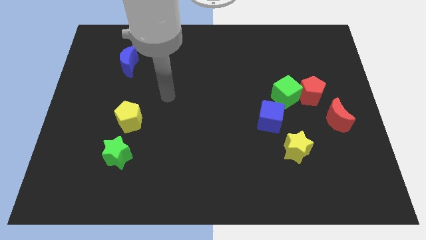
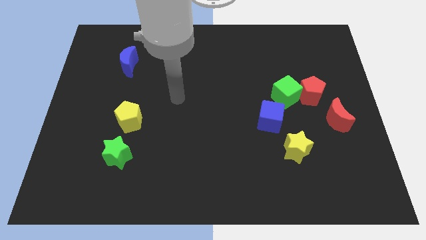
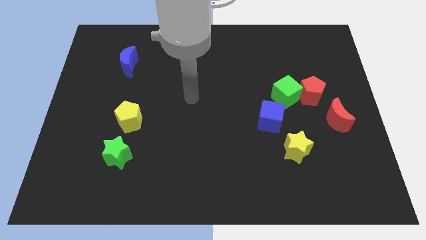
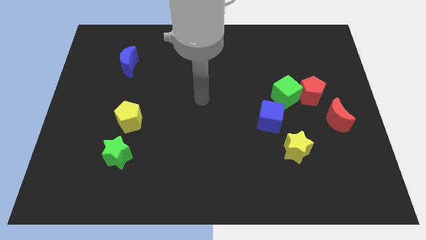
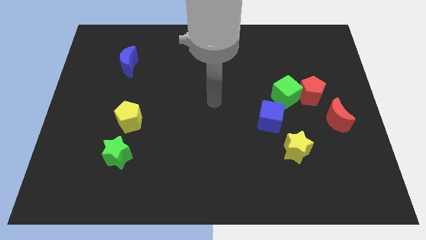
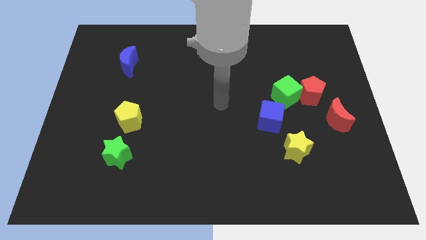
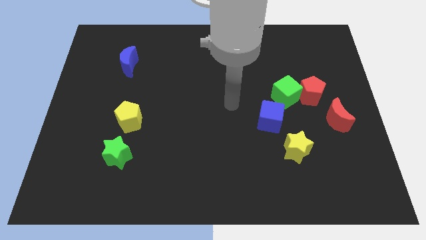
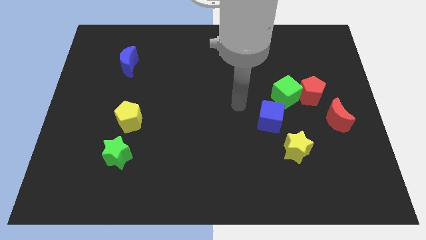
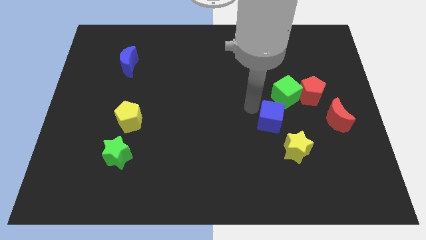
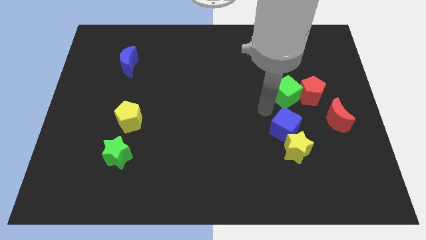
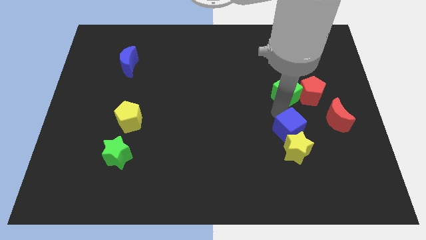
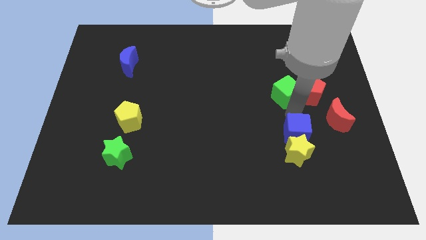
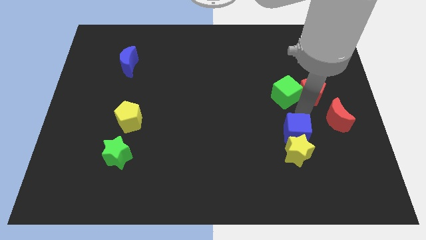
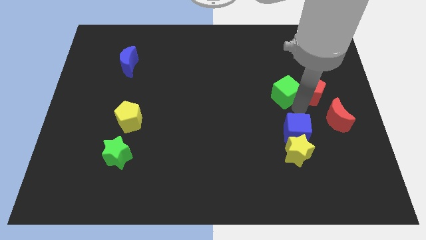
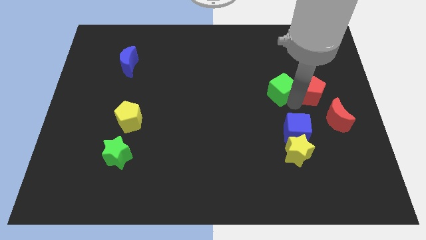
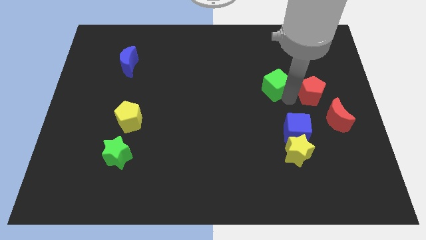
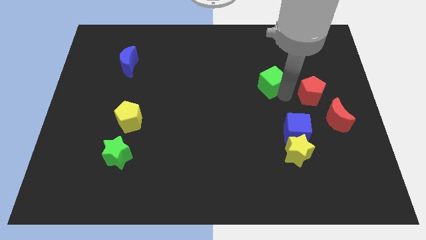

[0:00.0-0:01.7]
move the green cube away from the red pentagon and blue cube

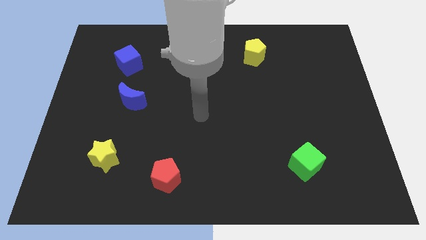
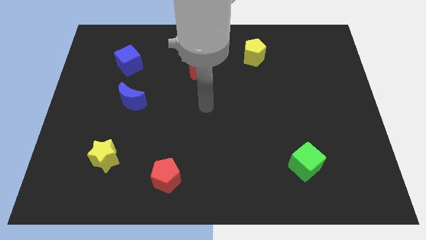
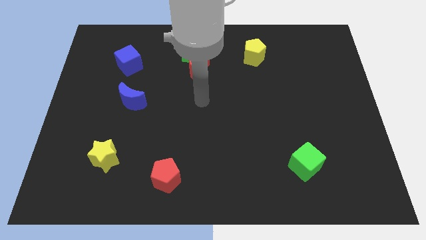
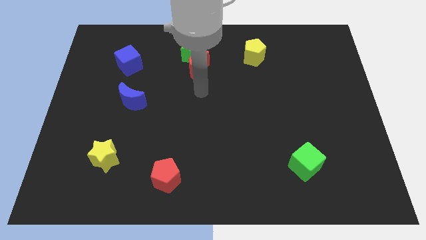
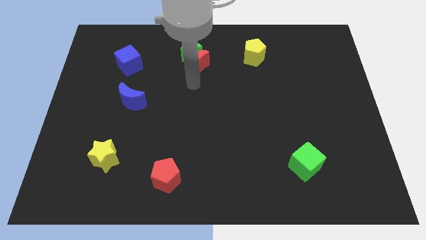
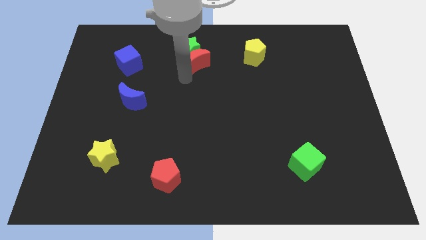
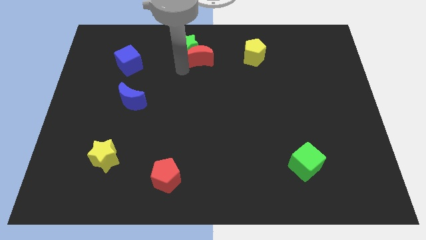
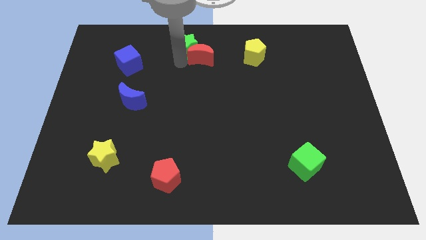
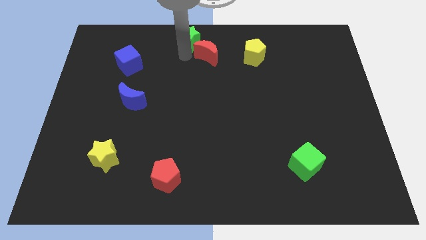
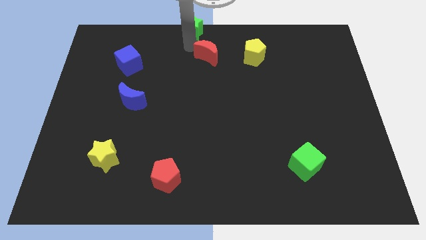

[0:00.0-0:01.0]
move the red moon away from the green star

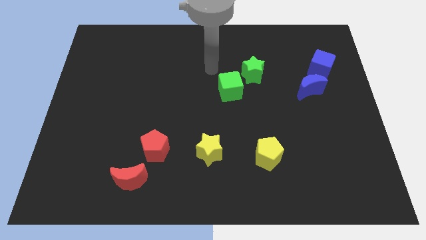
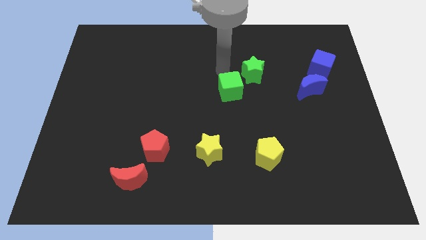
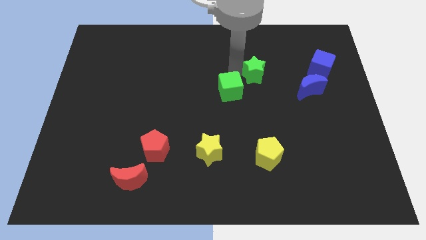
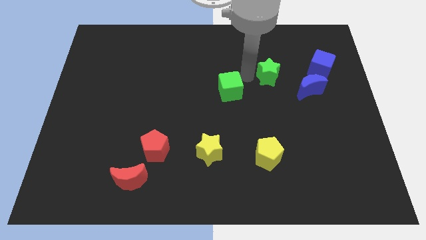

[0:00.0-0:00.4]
pull the green cube apart from the green star

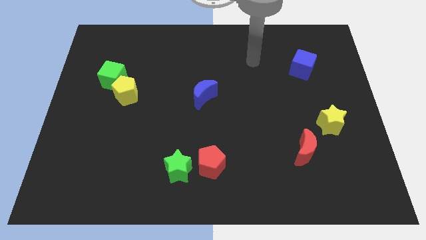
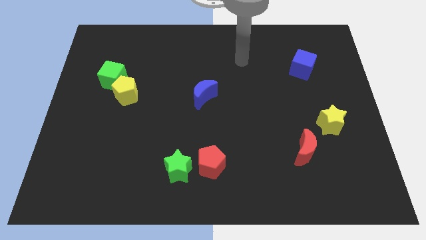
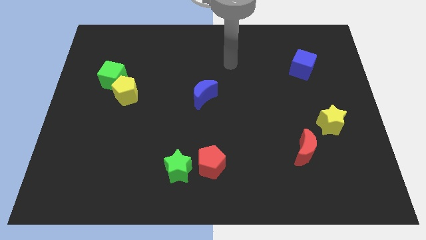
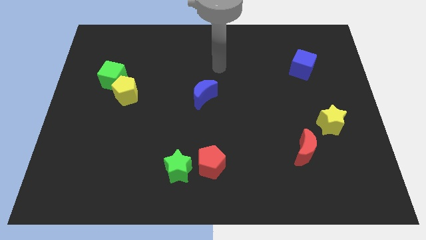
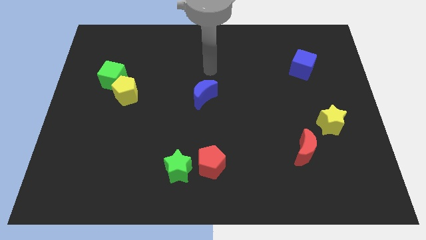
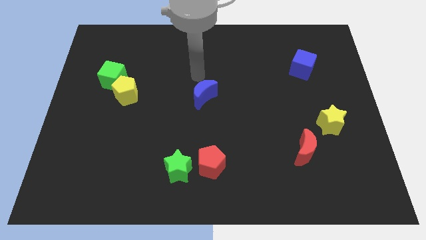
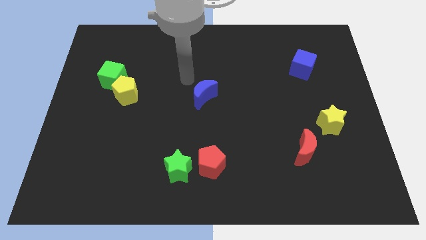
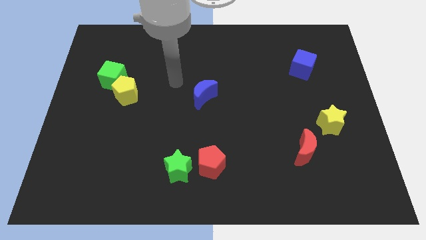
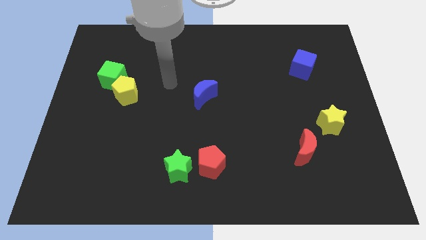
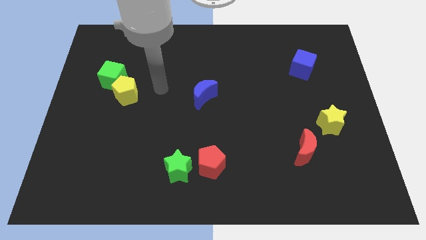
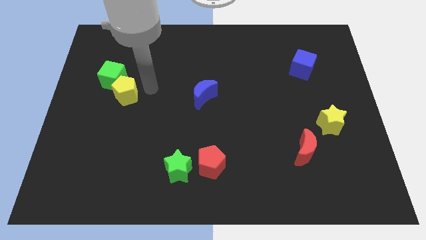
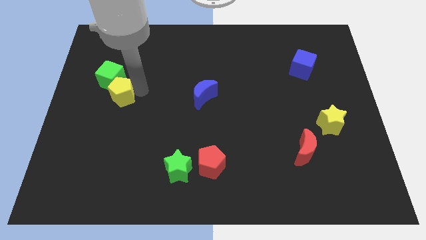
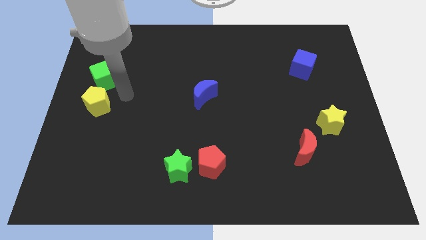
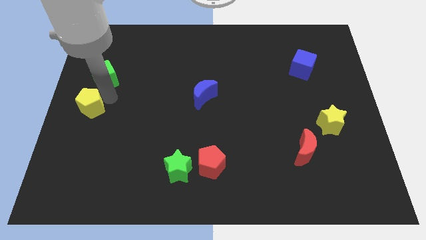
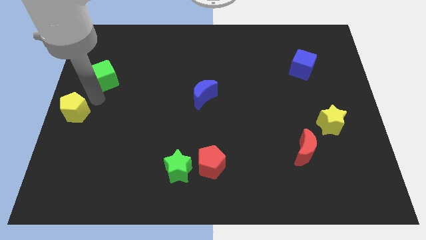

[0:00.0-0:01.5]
pull the green cube apart from the yellow pentagon

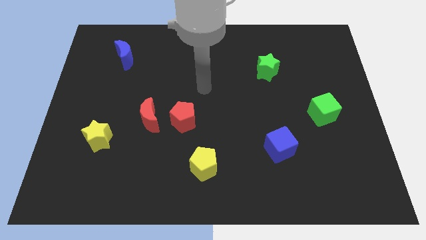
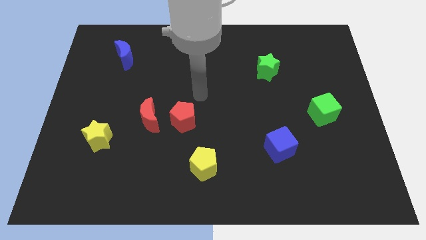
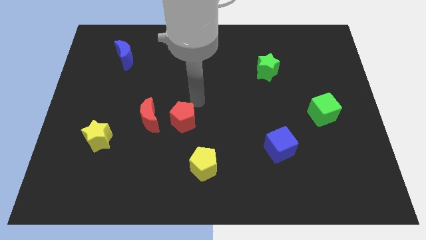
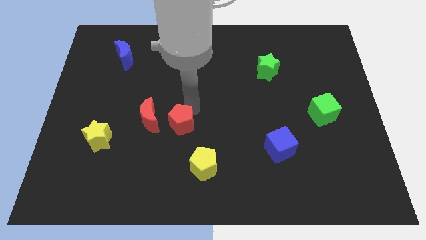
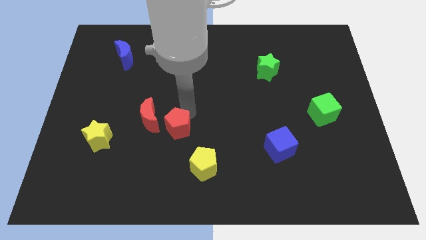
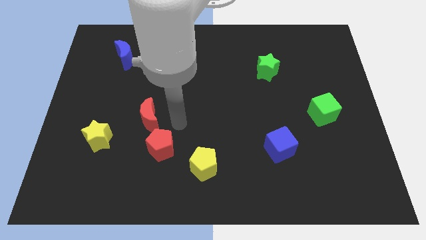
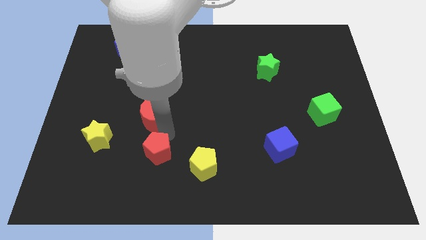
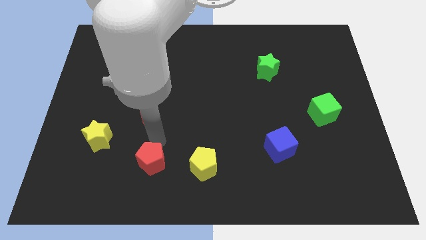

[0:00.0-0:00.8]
pull the red moon apart from the red pentagon

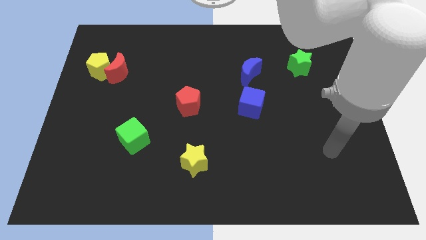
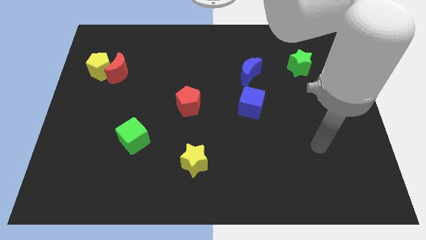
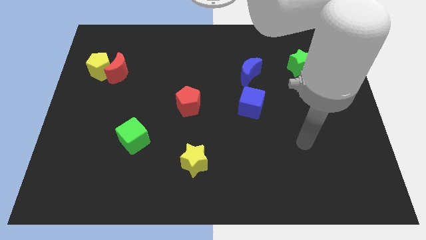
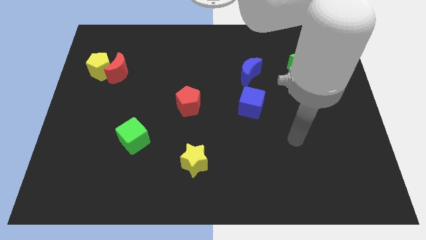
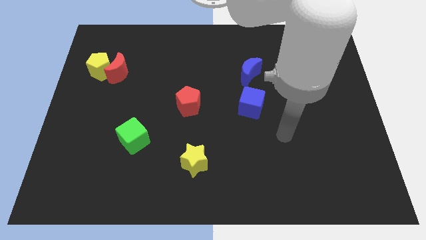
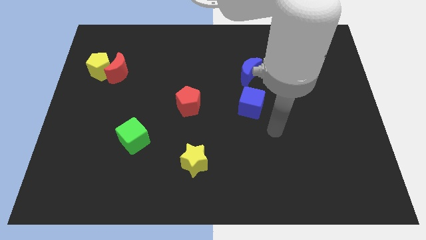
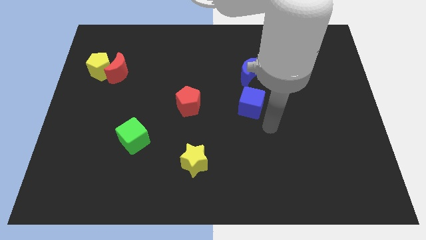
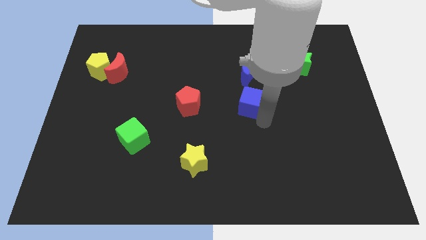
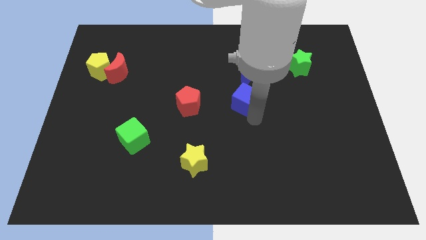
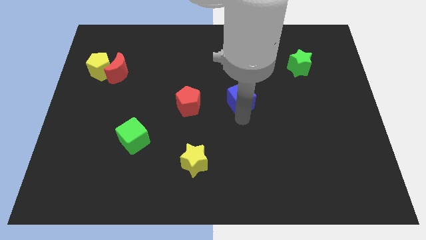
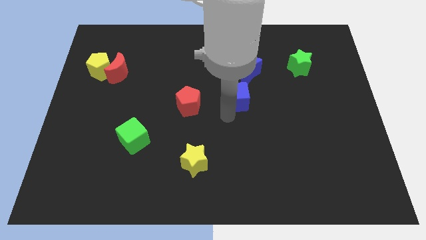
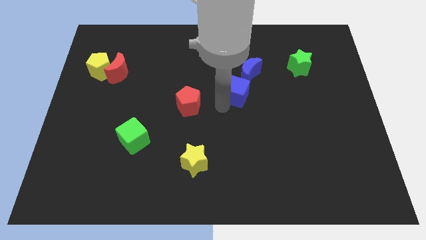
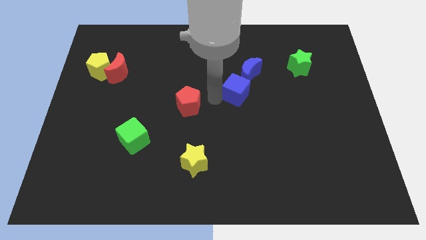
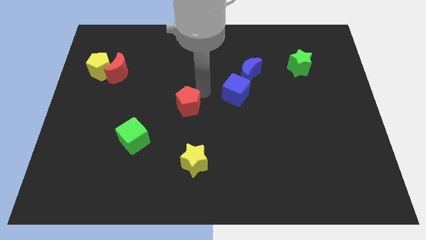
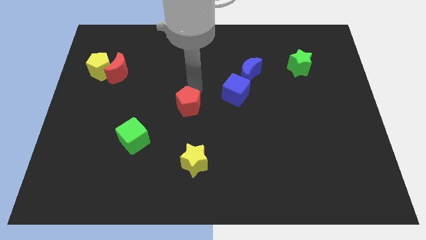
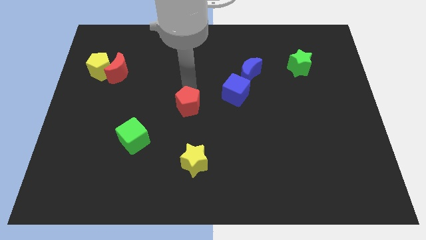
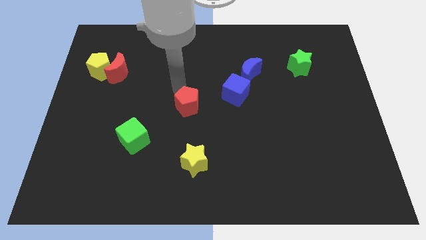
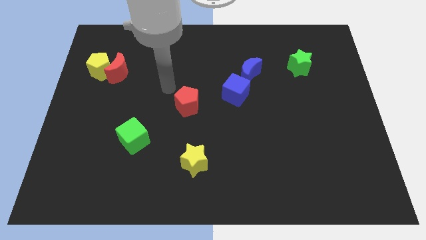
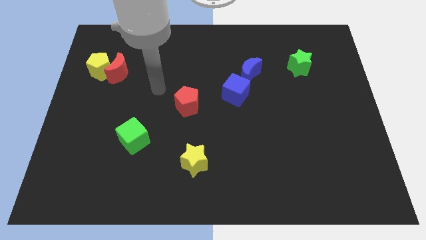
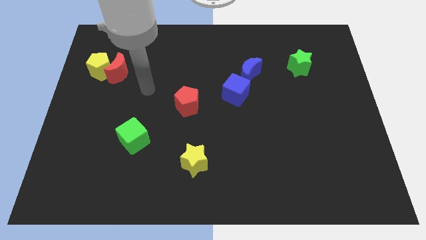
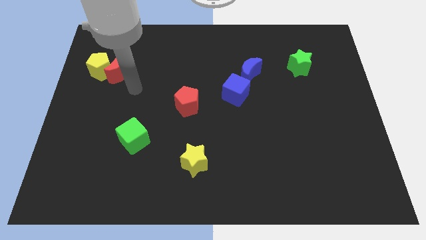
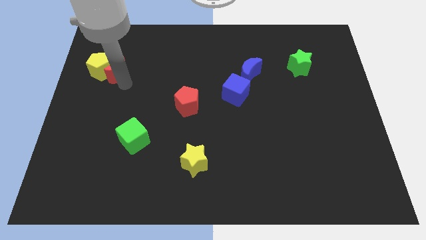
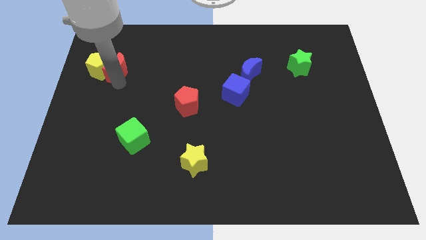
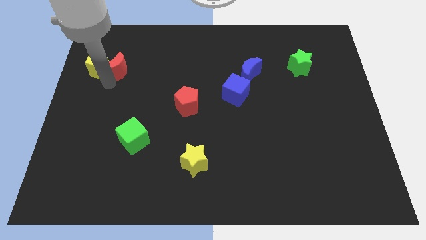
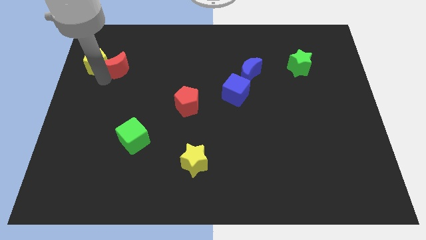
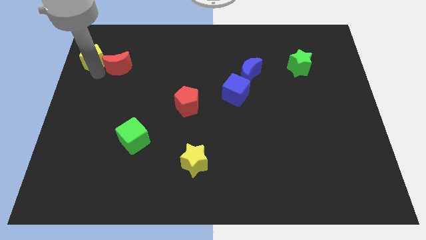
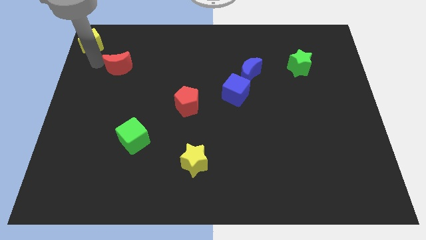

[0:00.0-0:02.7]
separate the red moon from the yellow pentagon

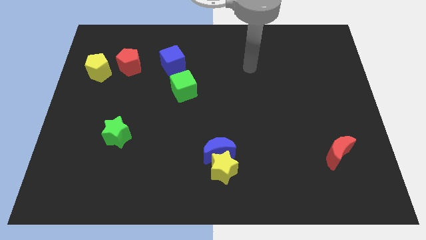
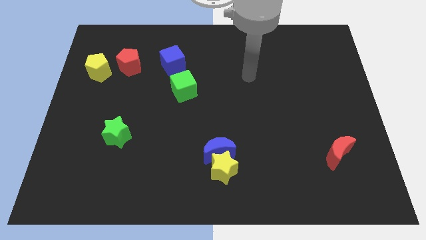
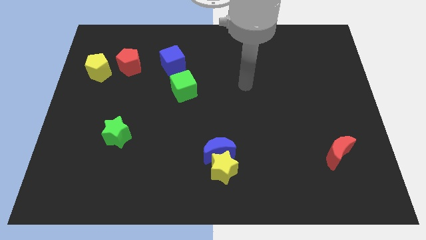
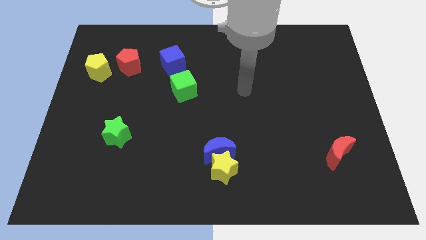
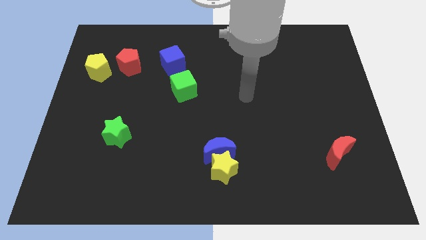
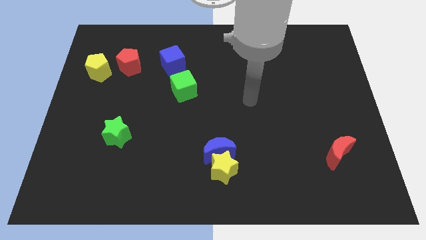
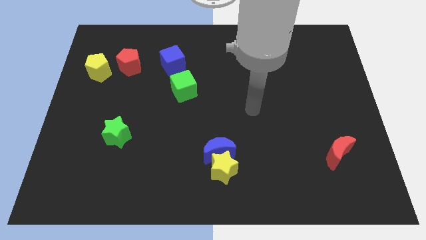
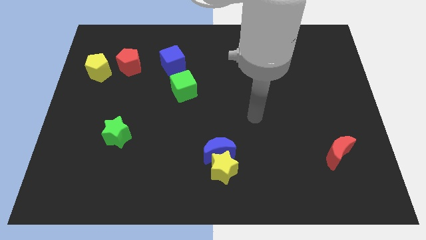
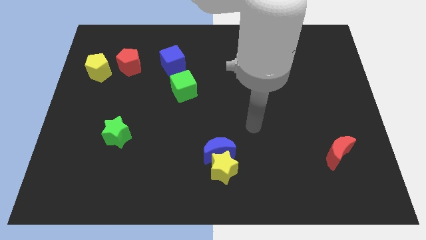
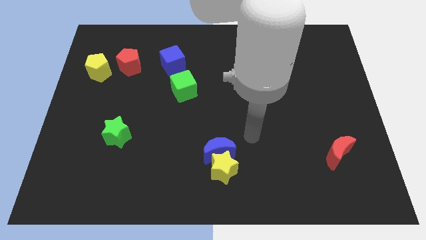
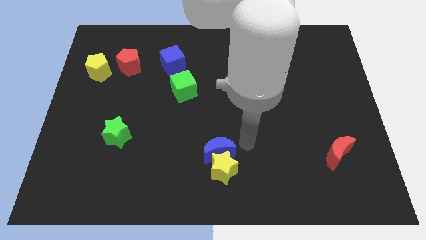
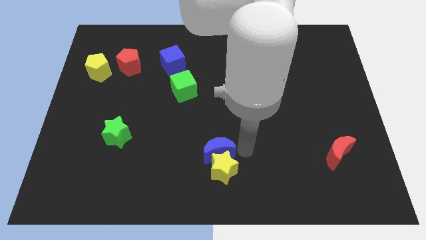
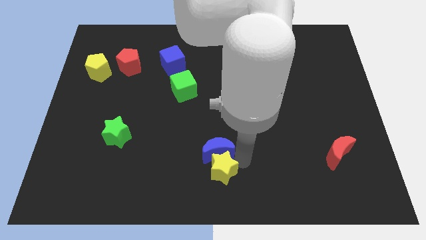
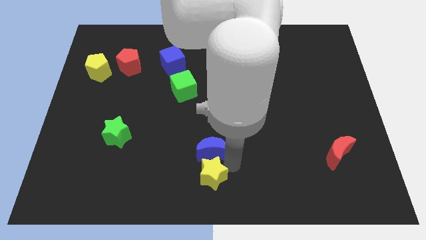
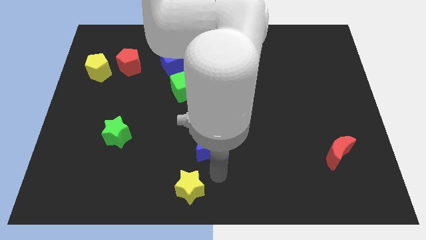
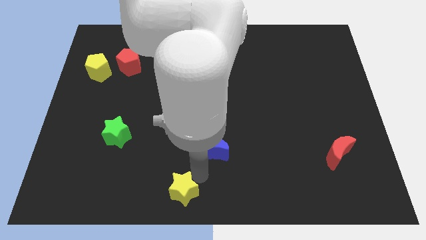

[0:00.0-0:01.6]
separate the blue moon from the yellow star
